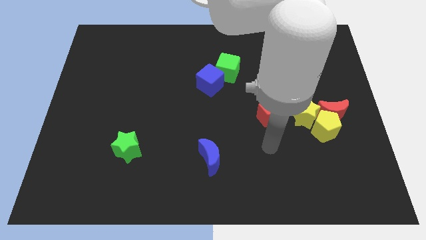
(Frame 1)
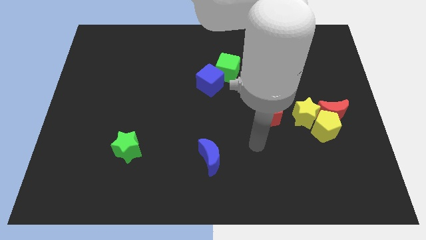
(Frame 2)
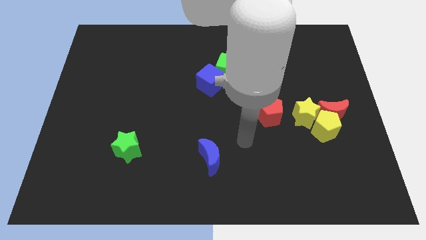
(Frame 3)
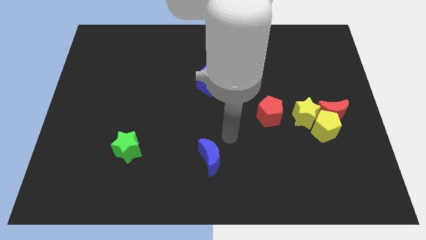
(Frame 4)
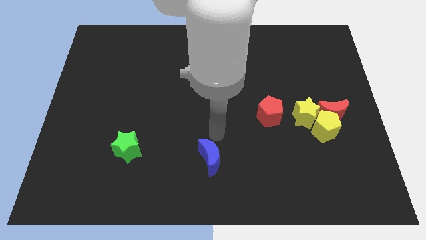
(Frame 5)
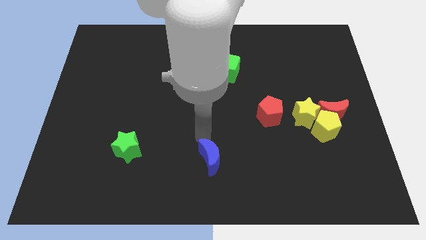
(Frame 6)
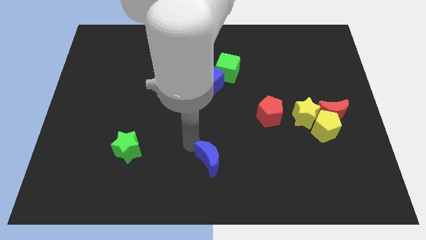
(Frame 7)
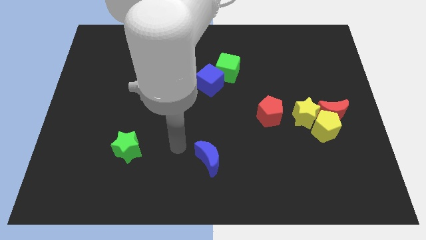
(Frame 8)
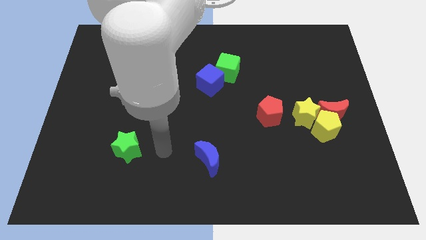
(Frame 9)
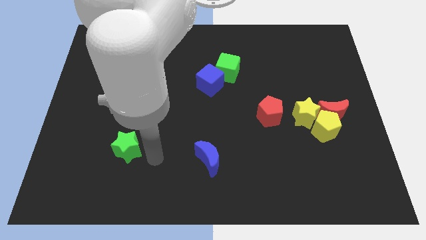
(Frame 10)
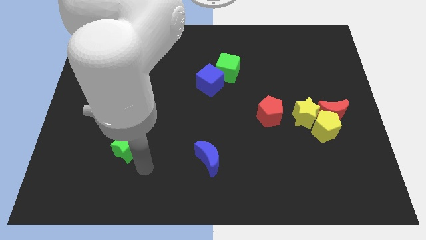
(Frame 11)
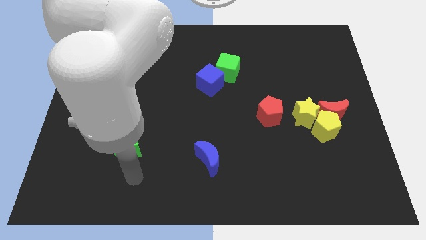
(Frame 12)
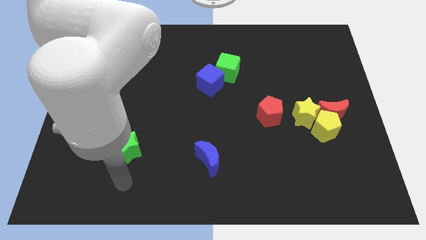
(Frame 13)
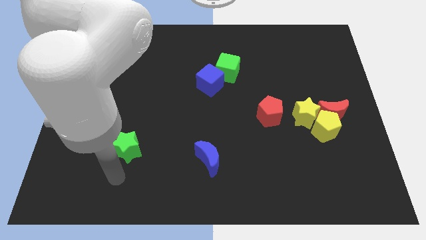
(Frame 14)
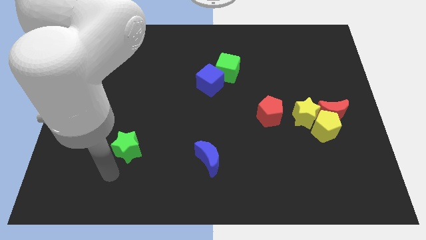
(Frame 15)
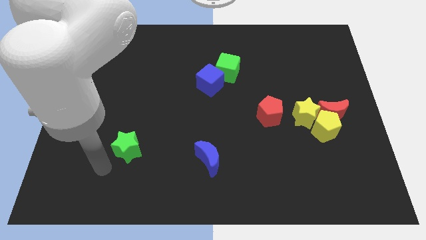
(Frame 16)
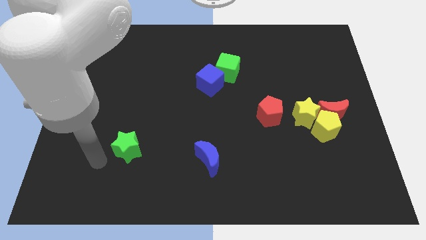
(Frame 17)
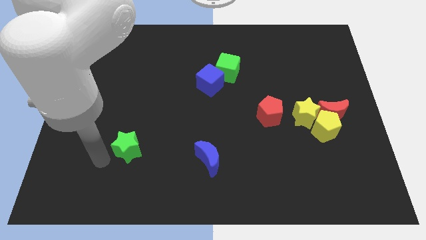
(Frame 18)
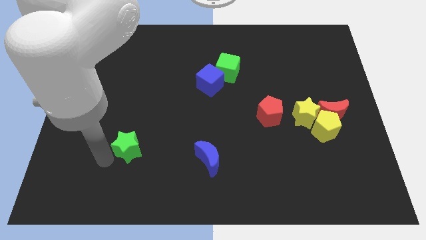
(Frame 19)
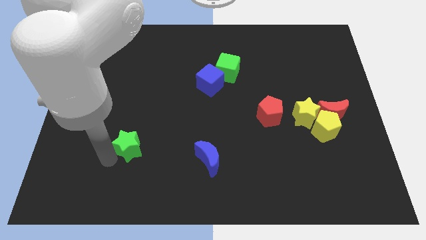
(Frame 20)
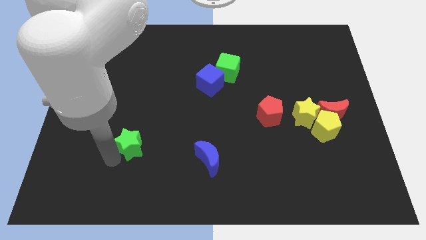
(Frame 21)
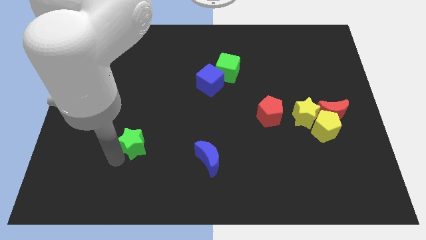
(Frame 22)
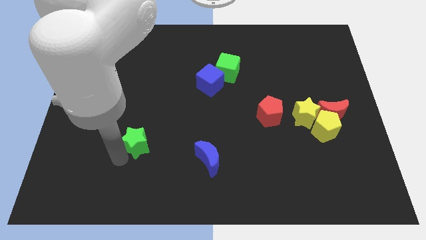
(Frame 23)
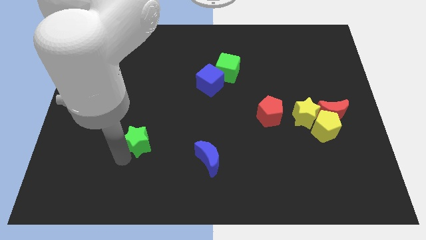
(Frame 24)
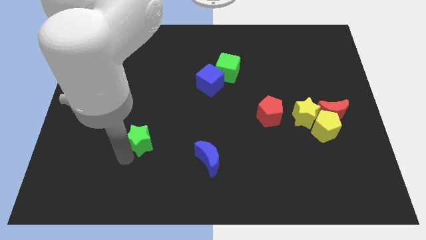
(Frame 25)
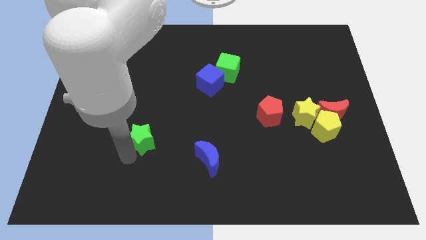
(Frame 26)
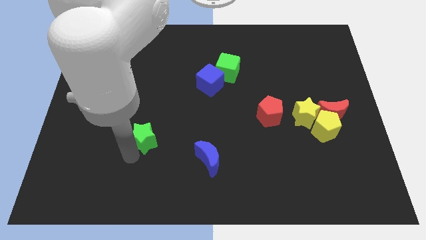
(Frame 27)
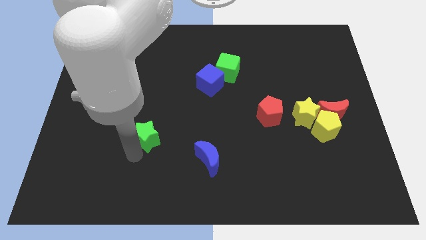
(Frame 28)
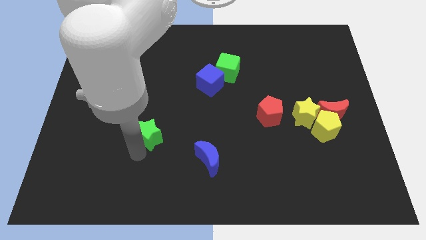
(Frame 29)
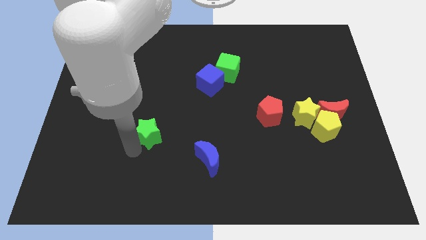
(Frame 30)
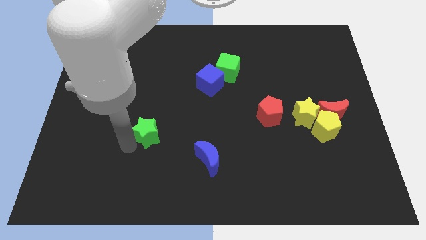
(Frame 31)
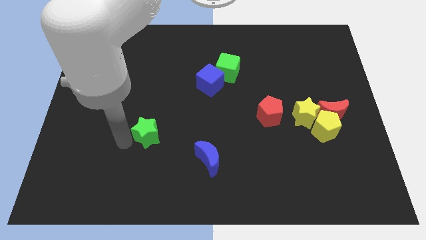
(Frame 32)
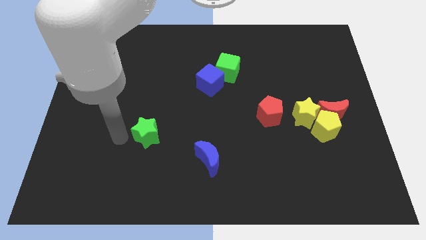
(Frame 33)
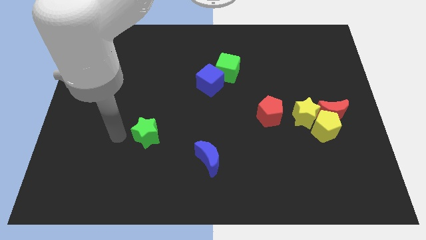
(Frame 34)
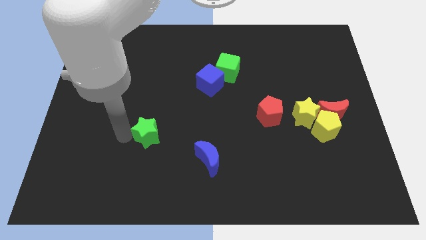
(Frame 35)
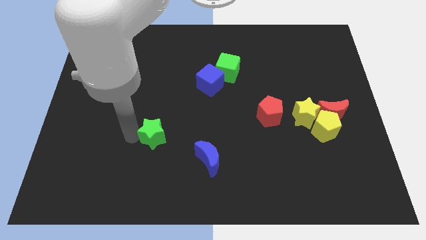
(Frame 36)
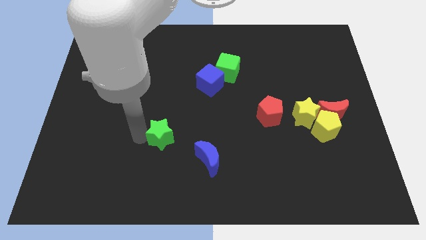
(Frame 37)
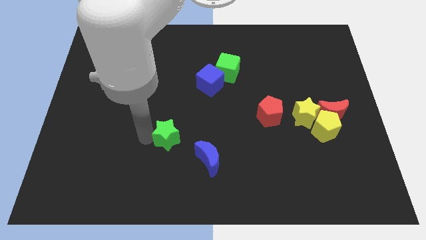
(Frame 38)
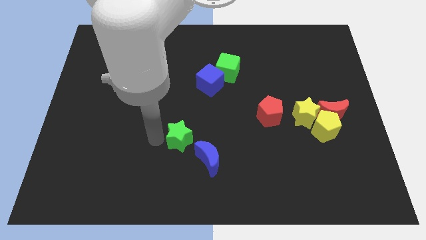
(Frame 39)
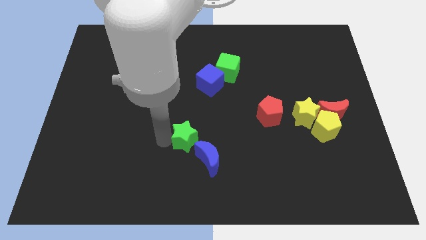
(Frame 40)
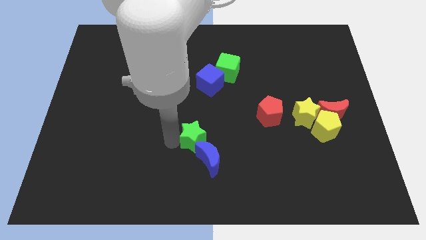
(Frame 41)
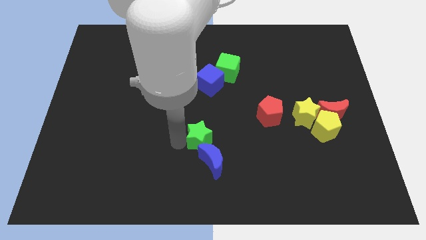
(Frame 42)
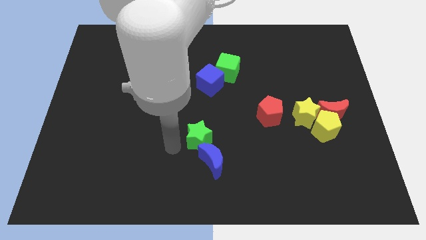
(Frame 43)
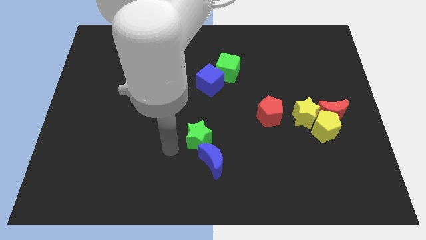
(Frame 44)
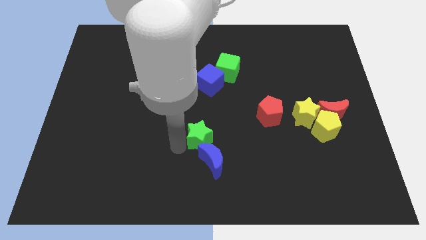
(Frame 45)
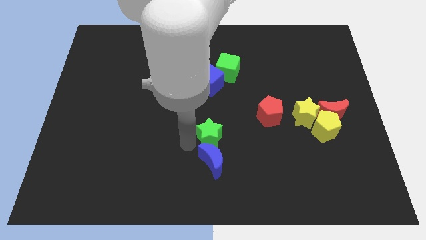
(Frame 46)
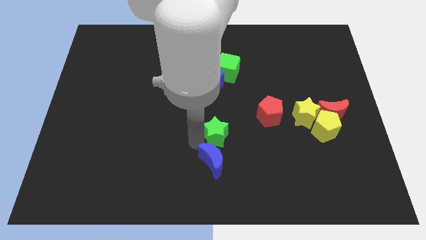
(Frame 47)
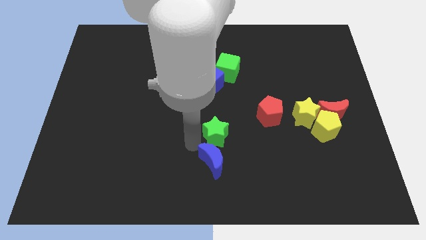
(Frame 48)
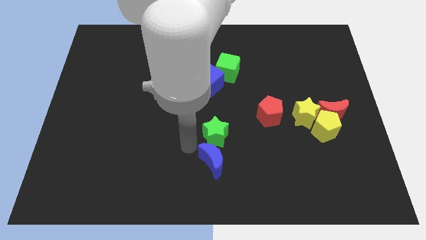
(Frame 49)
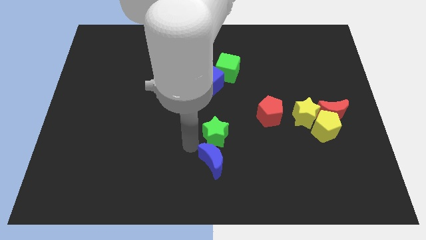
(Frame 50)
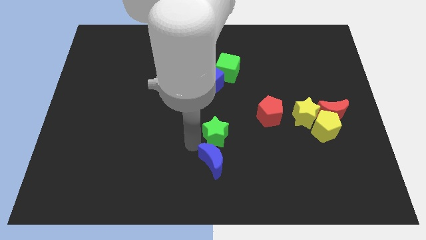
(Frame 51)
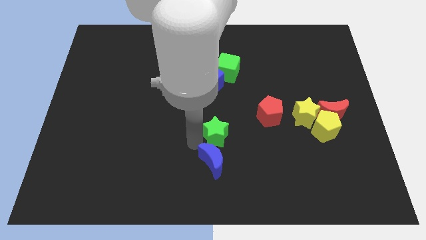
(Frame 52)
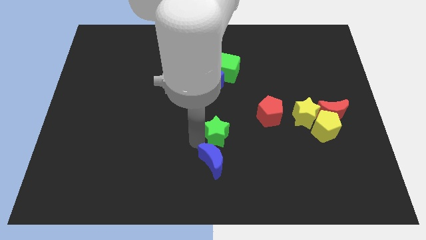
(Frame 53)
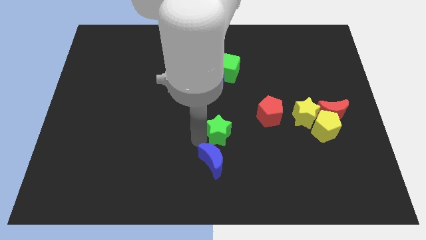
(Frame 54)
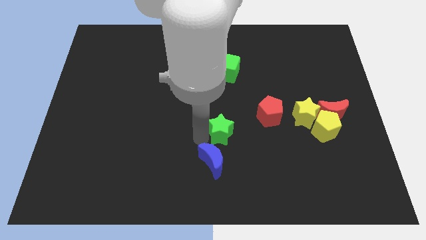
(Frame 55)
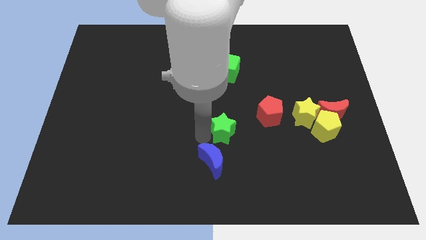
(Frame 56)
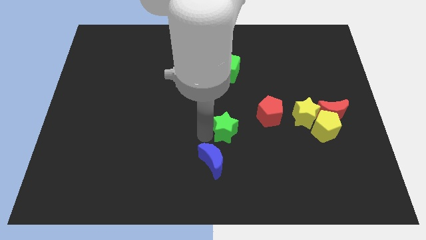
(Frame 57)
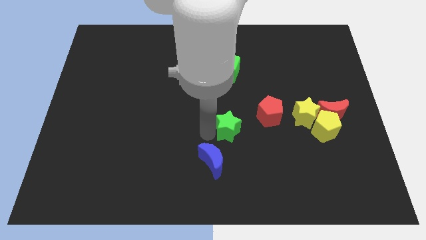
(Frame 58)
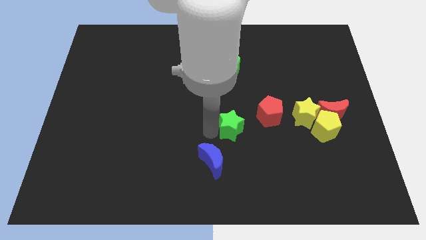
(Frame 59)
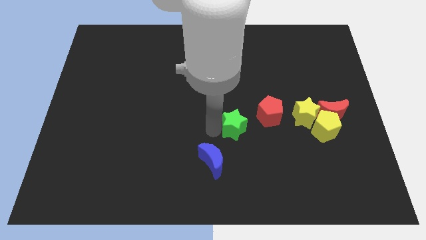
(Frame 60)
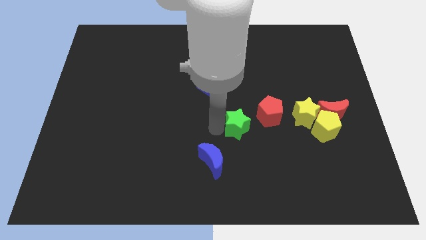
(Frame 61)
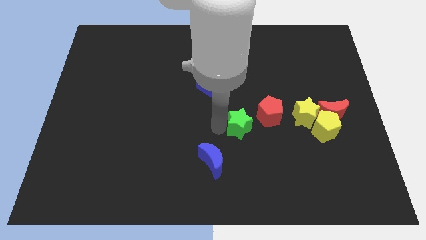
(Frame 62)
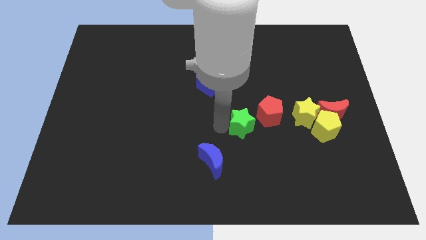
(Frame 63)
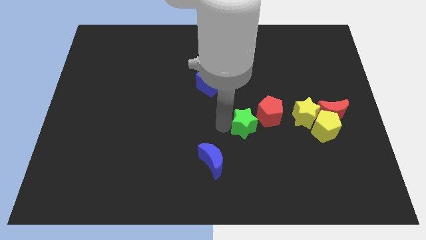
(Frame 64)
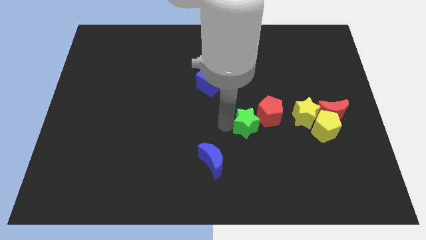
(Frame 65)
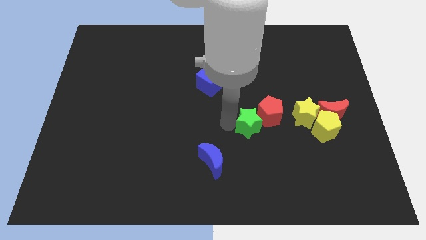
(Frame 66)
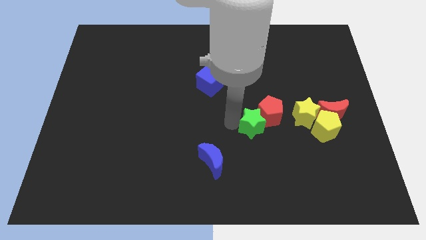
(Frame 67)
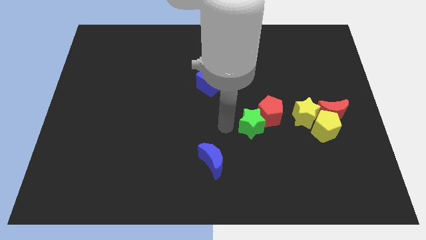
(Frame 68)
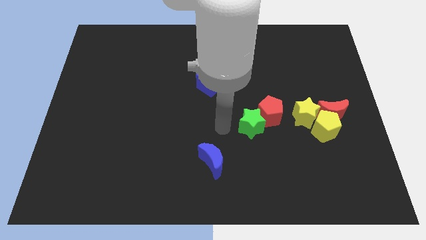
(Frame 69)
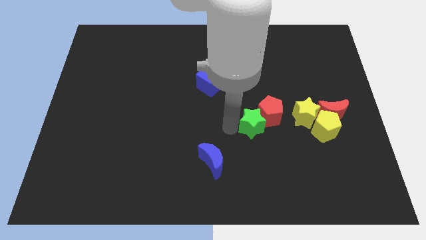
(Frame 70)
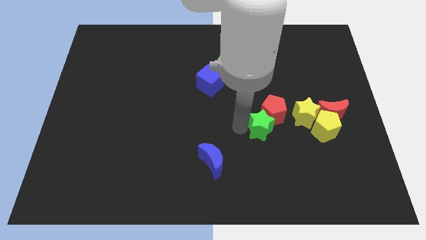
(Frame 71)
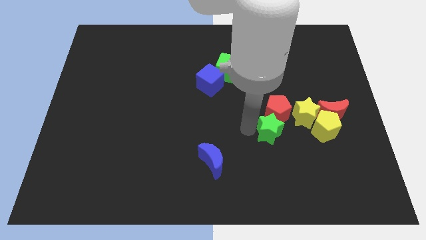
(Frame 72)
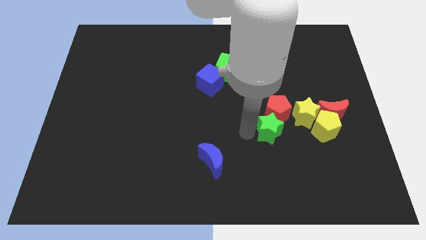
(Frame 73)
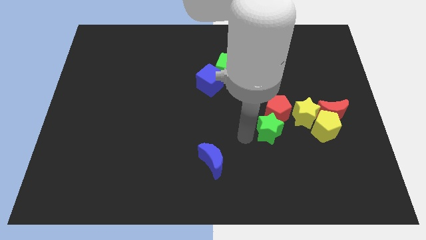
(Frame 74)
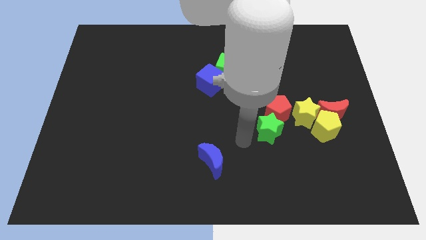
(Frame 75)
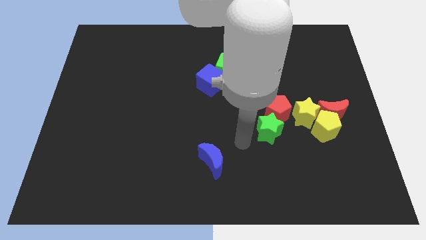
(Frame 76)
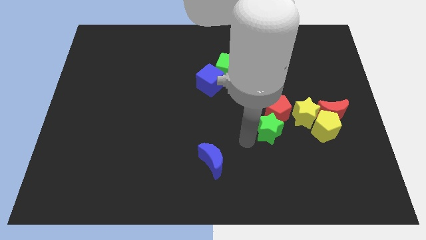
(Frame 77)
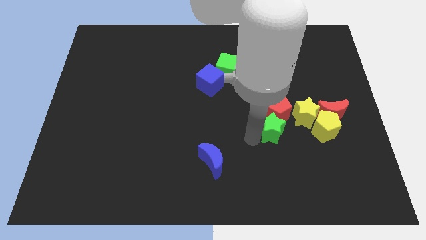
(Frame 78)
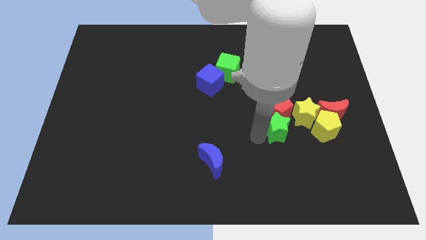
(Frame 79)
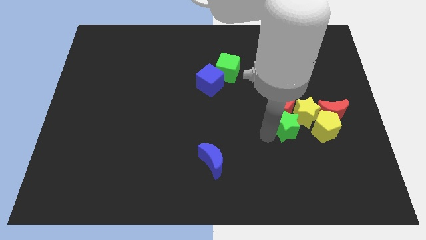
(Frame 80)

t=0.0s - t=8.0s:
slide the green star to the yellow star
